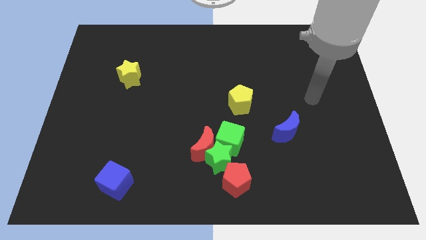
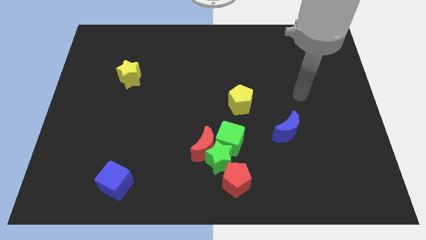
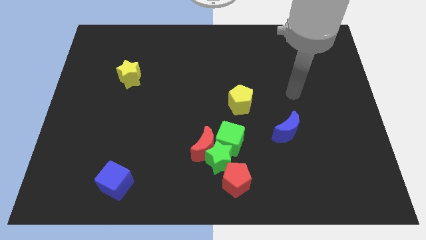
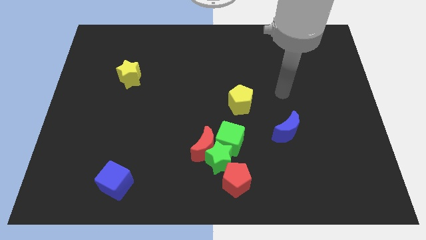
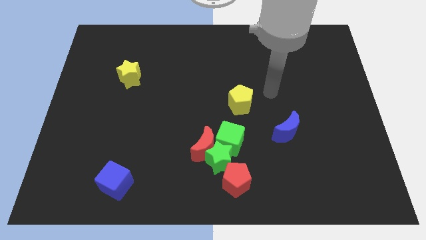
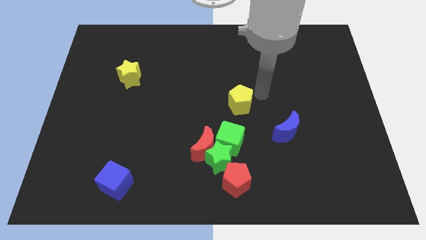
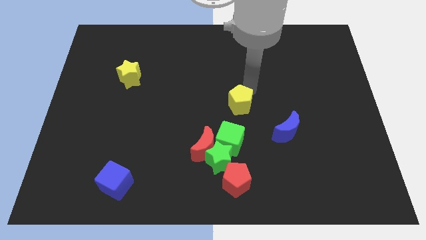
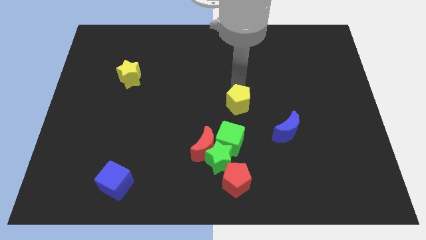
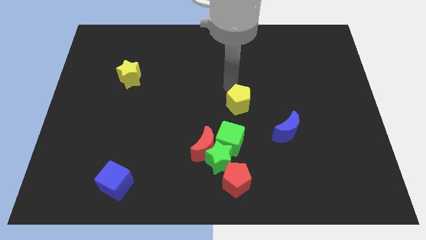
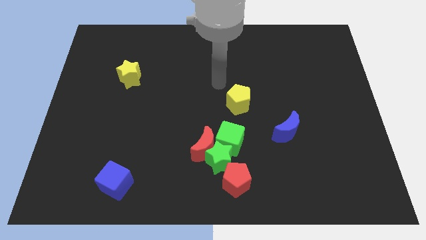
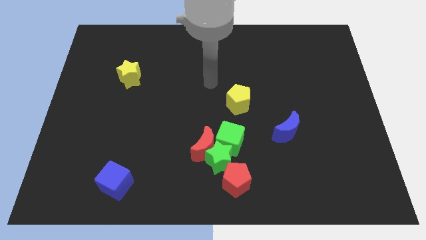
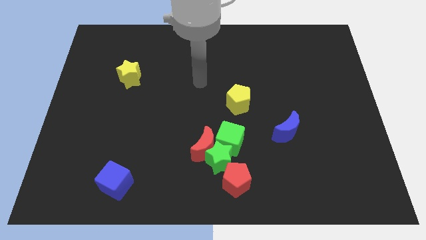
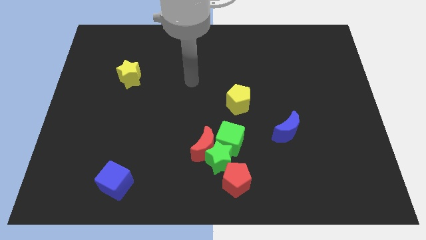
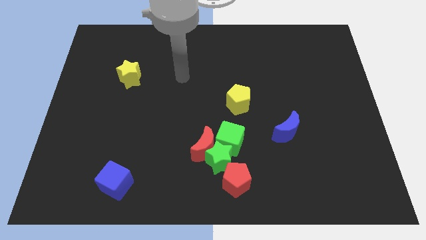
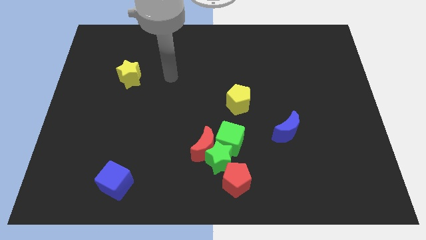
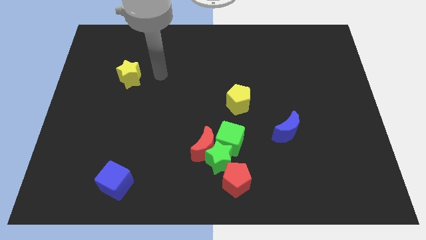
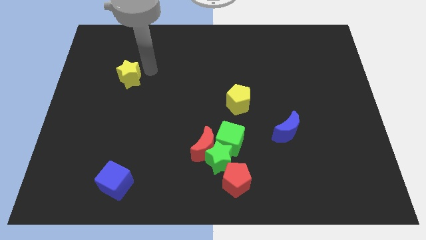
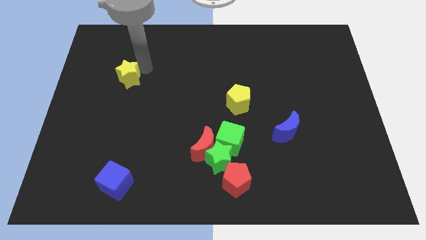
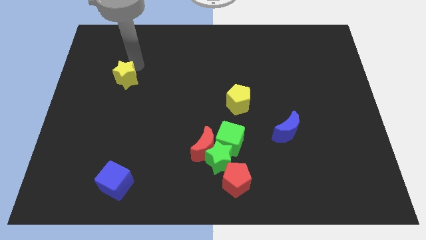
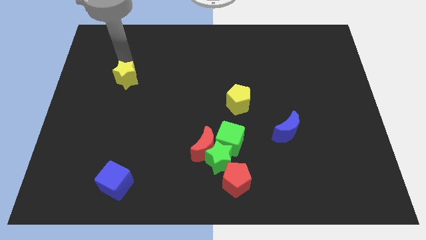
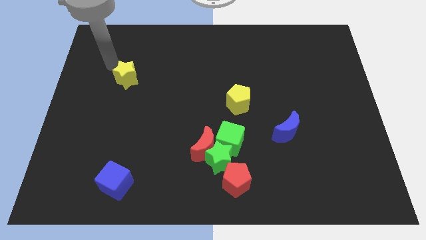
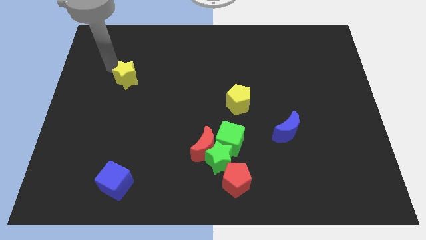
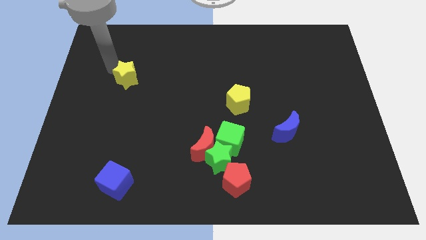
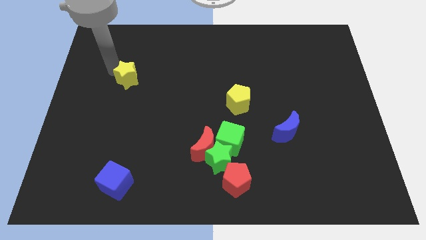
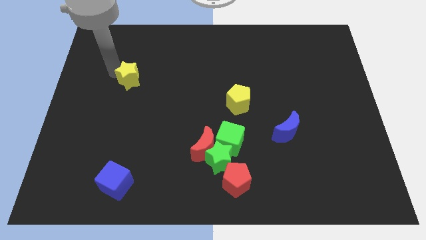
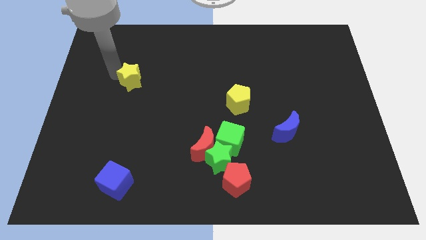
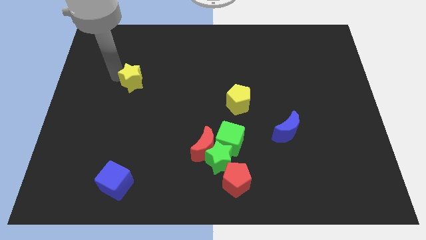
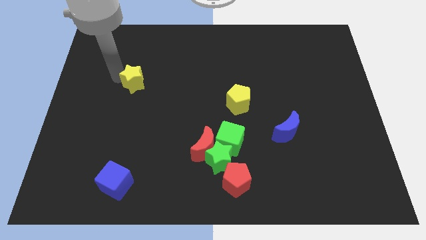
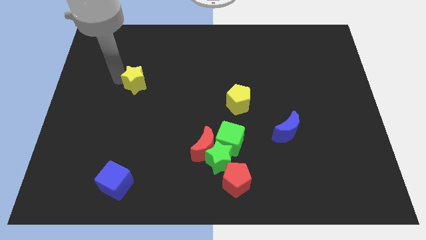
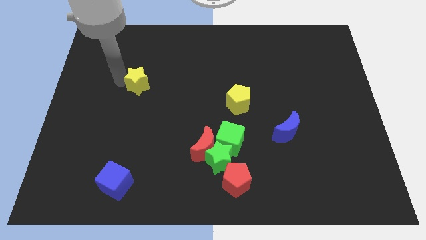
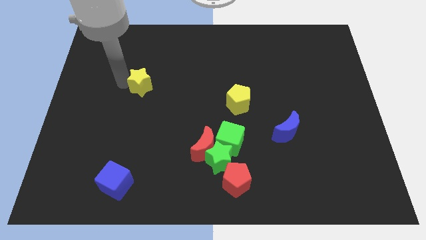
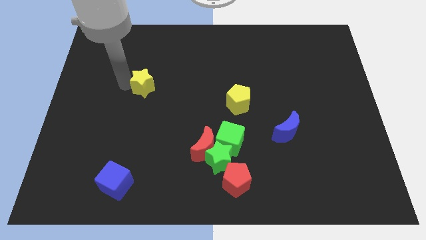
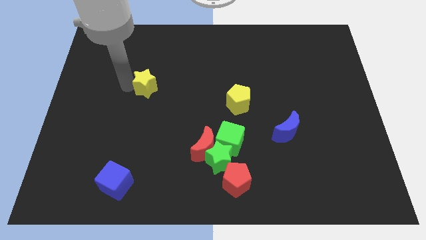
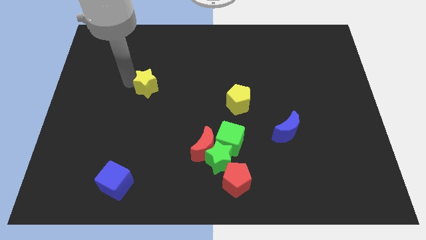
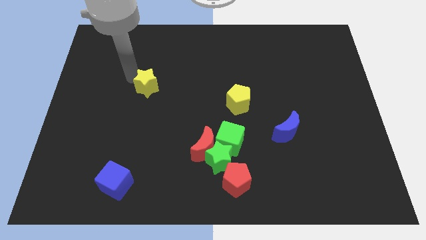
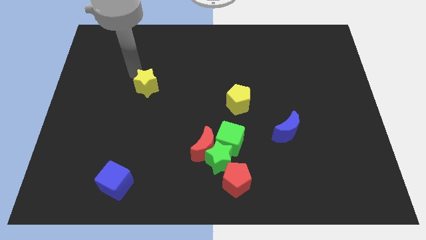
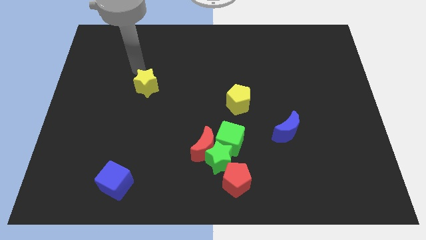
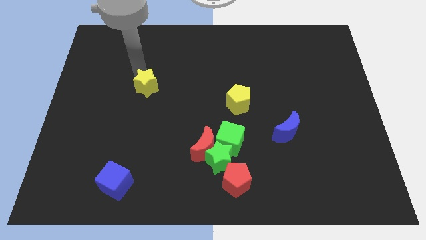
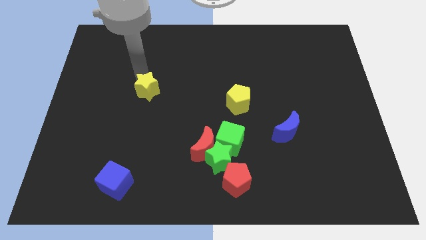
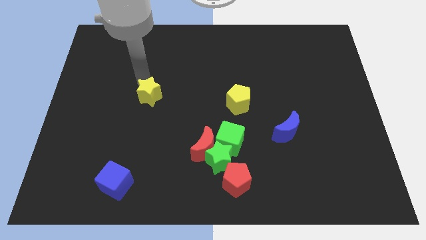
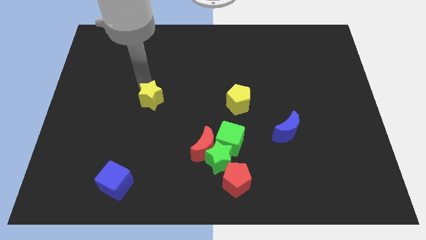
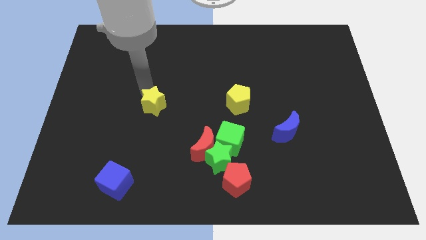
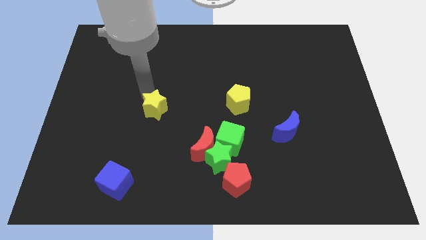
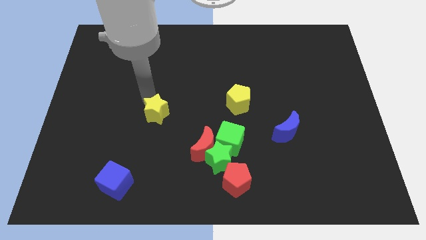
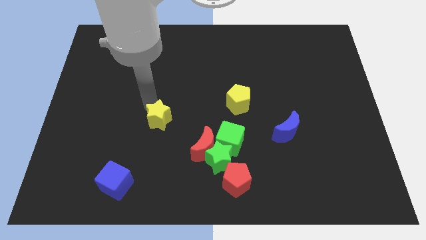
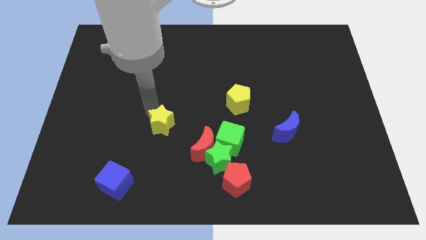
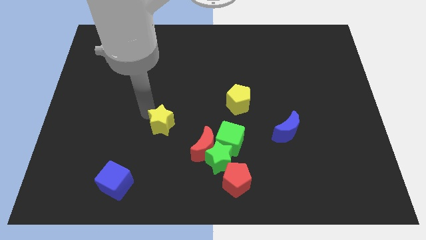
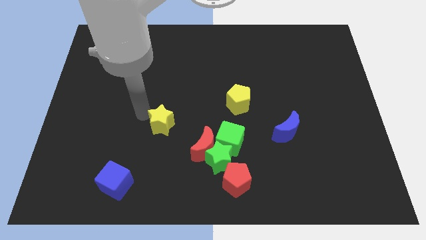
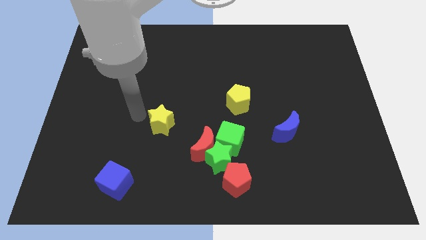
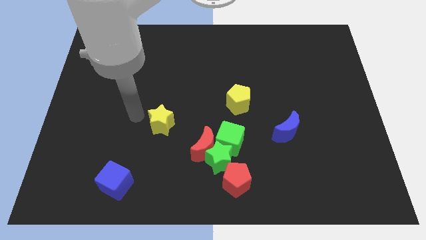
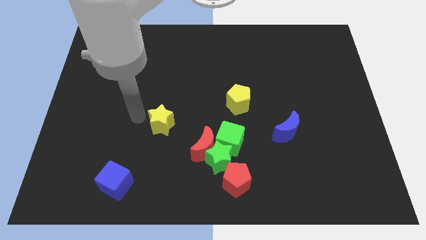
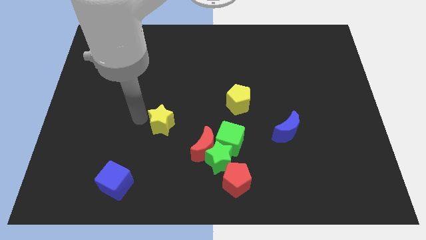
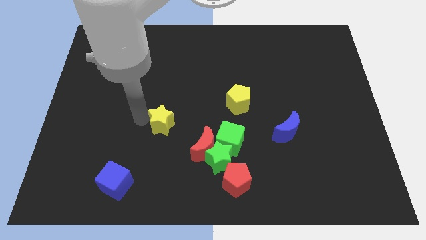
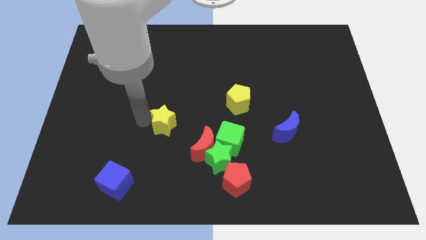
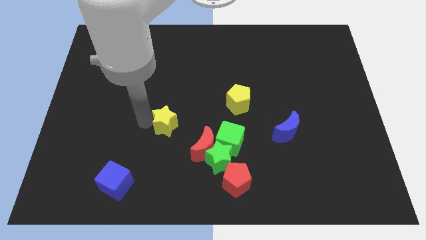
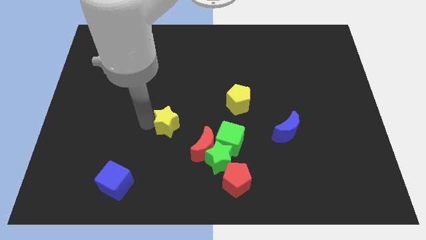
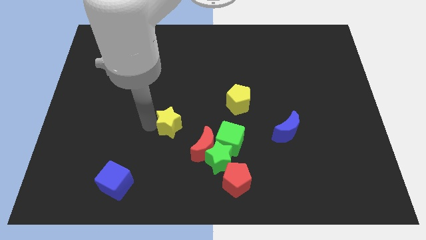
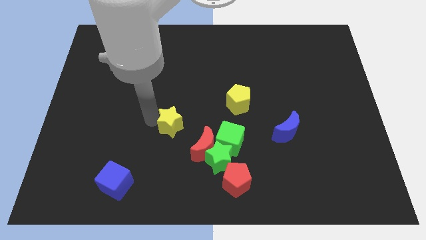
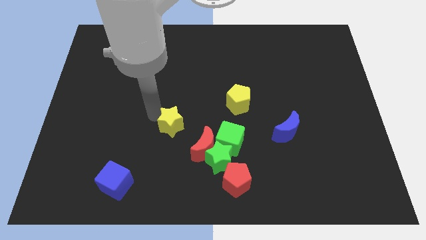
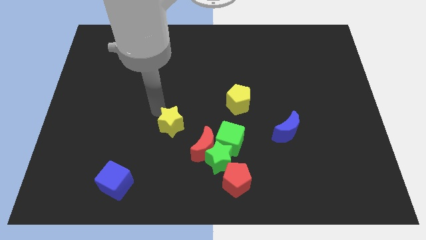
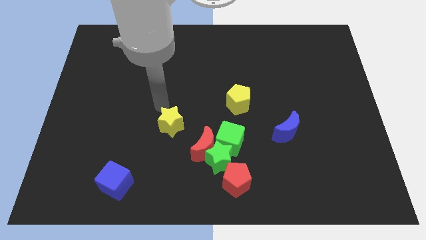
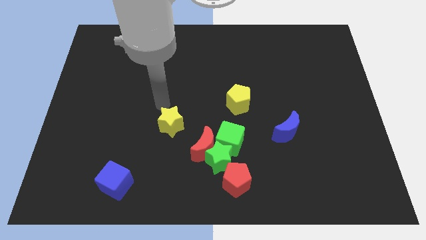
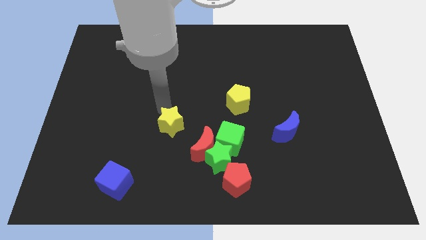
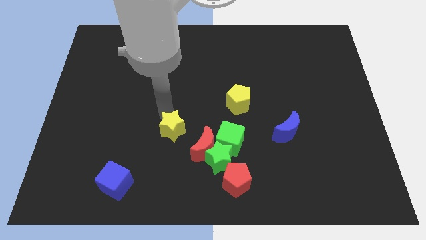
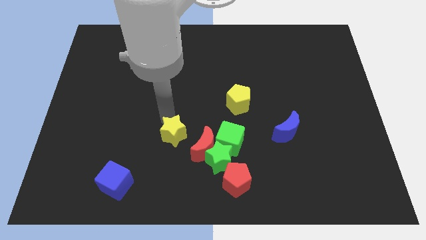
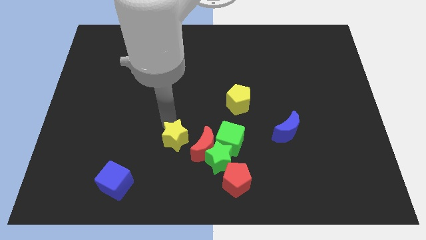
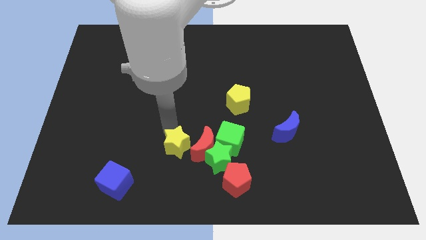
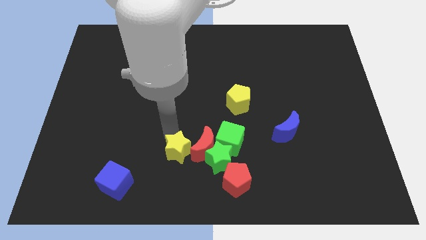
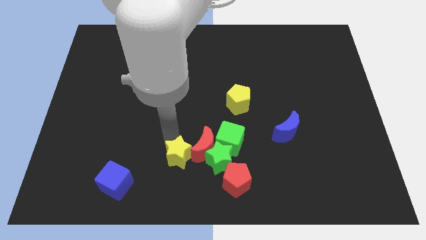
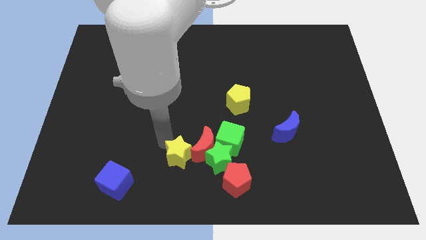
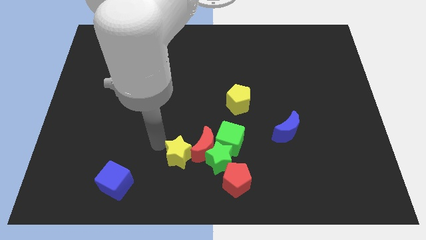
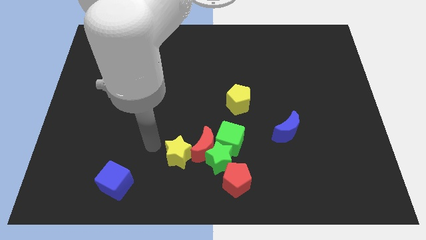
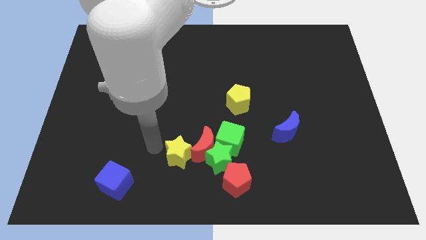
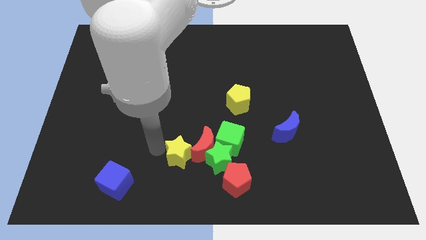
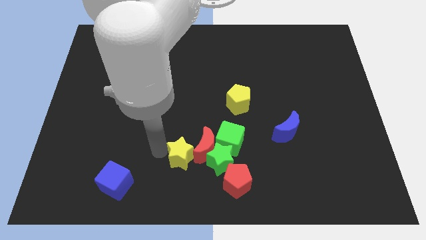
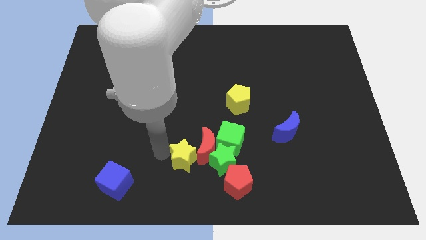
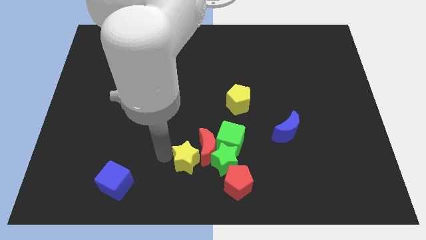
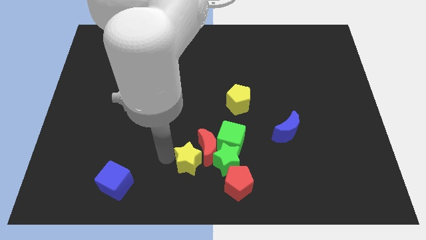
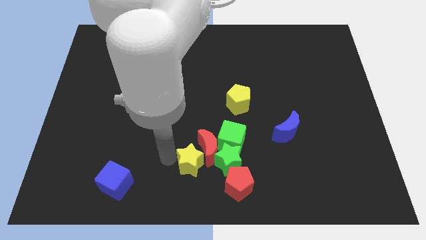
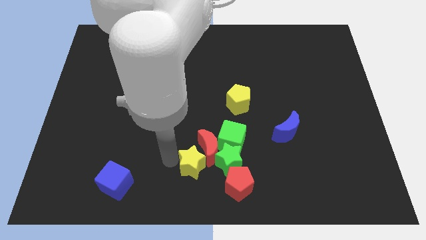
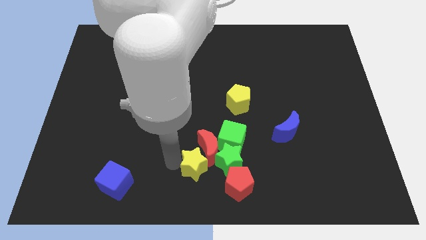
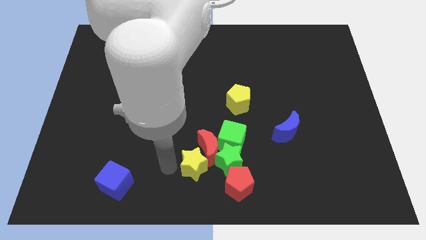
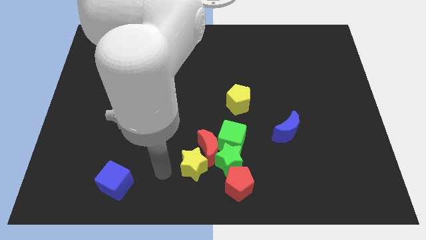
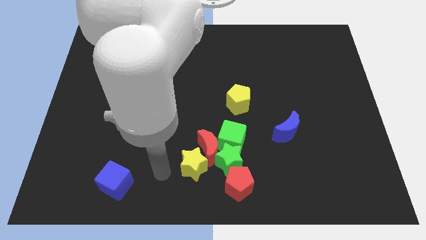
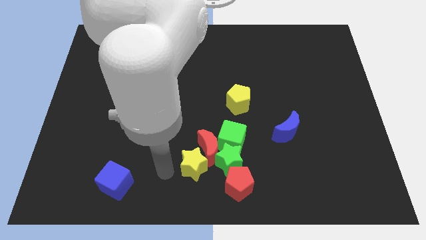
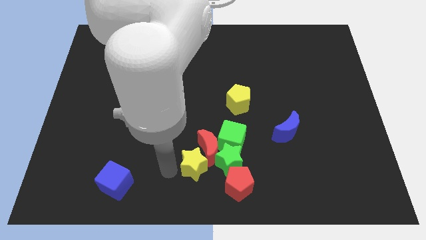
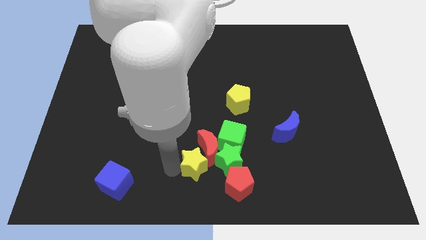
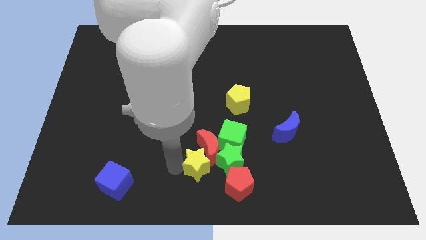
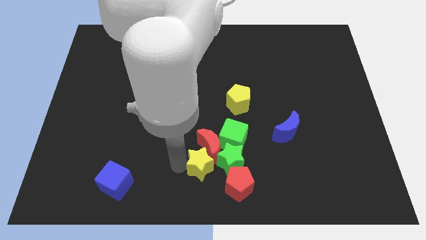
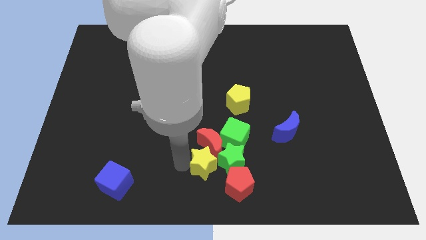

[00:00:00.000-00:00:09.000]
push the yellow star to the green star
